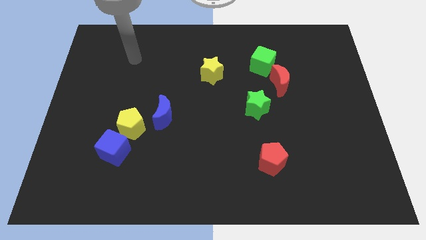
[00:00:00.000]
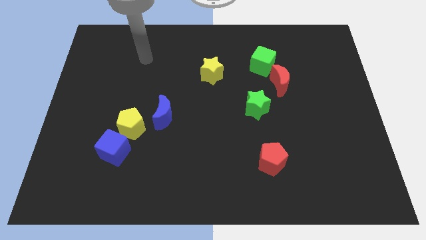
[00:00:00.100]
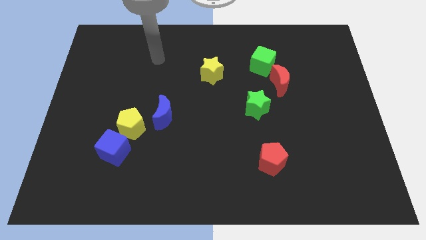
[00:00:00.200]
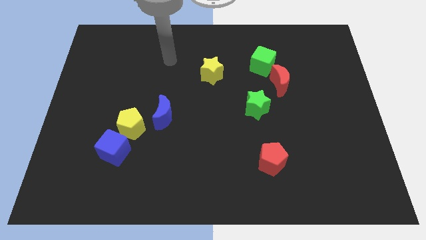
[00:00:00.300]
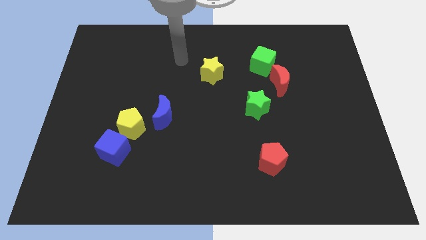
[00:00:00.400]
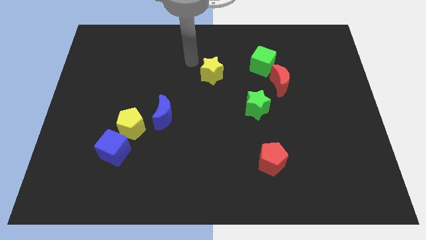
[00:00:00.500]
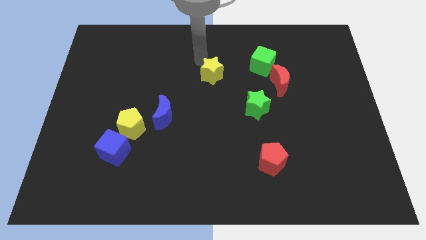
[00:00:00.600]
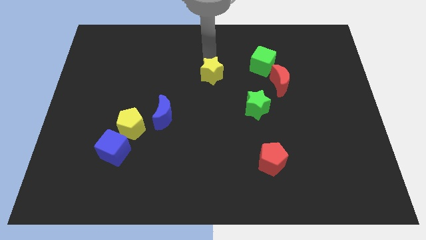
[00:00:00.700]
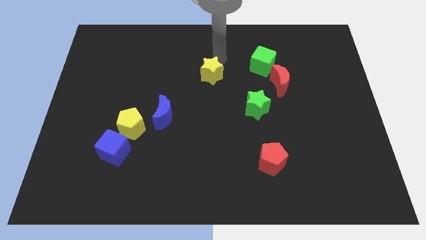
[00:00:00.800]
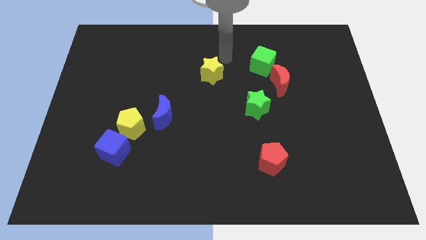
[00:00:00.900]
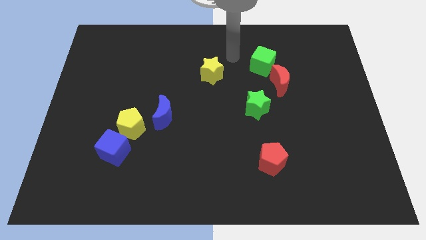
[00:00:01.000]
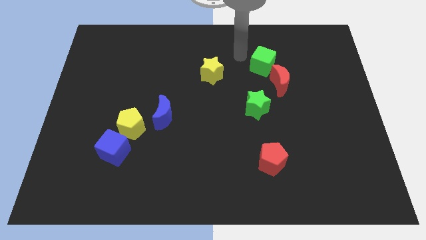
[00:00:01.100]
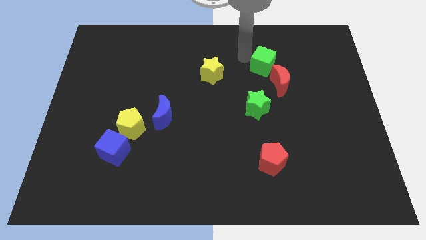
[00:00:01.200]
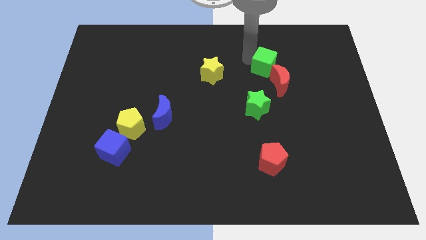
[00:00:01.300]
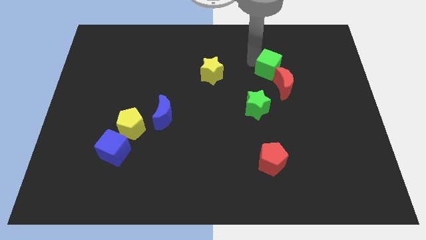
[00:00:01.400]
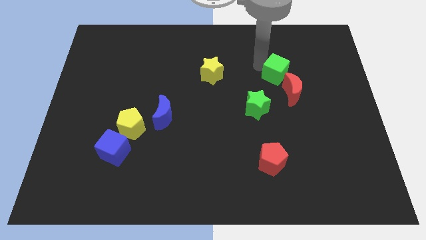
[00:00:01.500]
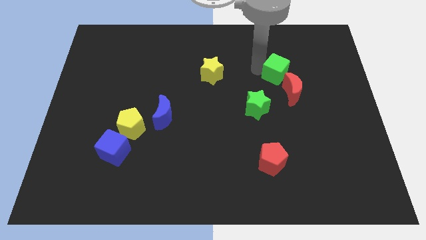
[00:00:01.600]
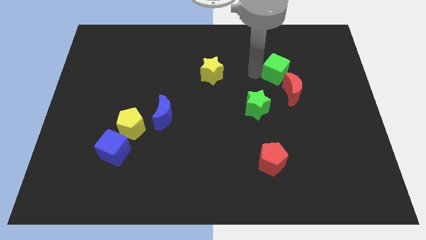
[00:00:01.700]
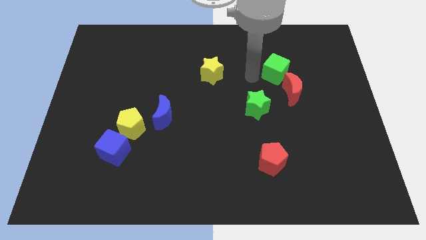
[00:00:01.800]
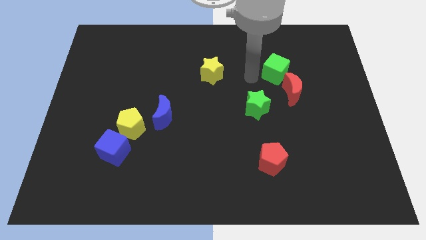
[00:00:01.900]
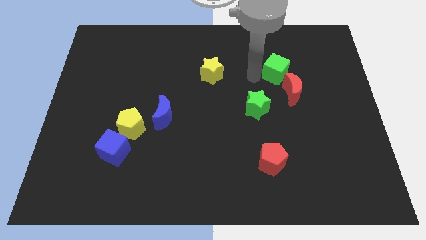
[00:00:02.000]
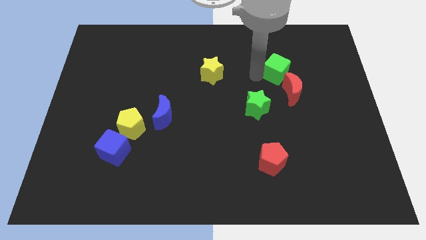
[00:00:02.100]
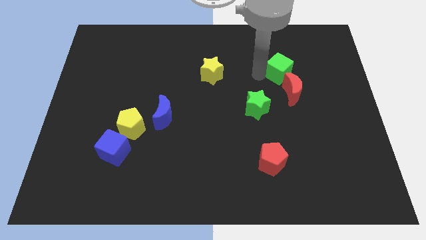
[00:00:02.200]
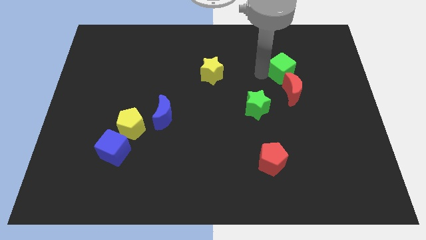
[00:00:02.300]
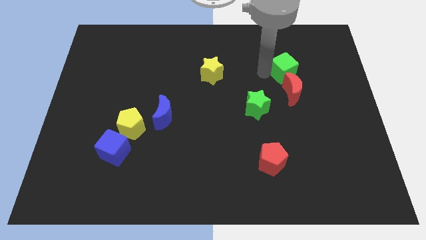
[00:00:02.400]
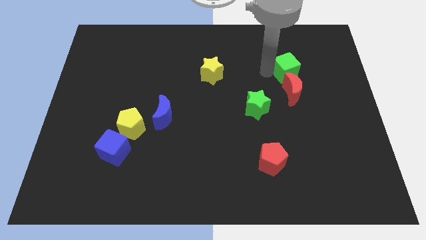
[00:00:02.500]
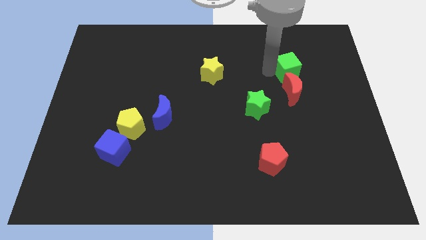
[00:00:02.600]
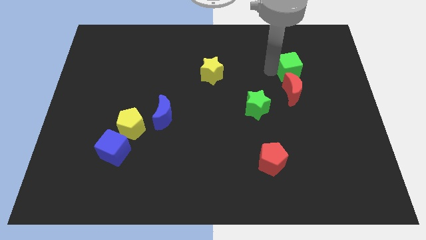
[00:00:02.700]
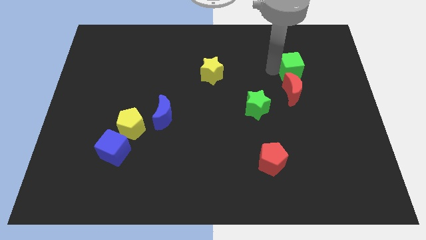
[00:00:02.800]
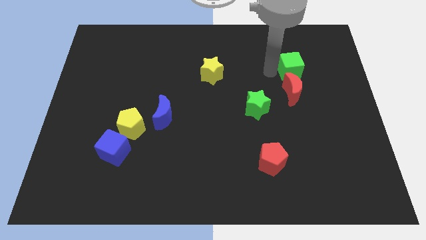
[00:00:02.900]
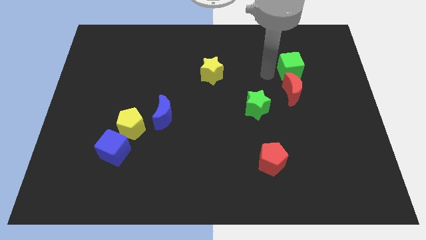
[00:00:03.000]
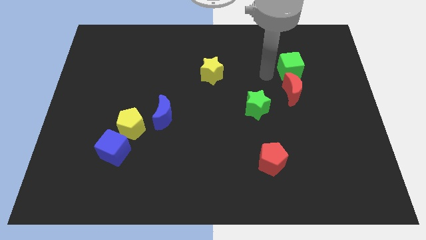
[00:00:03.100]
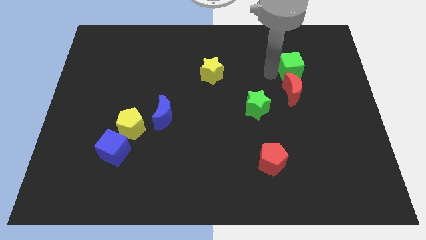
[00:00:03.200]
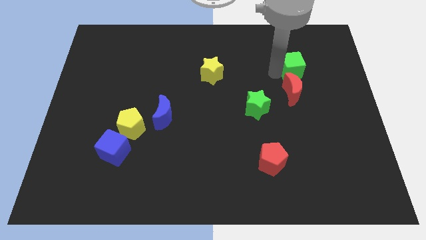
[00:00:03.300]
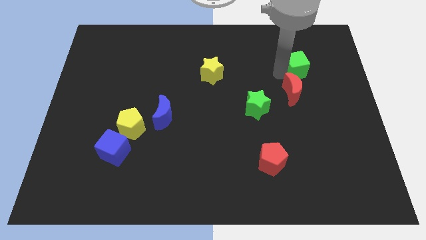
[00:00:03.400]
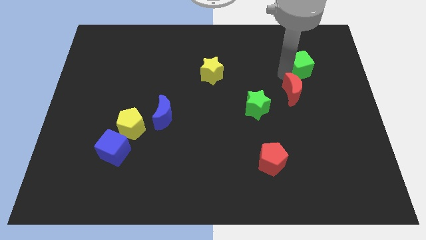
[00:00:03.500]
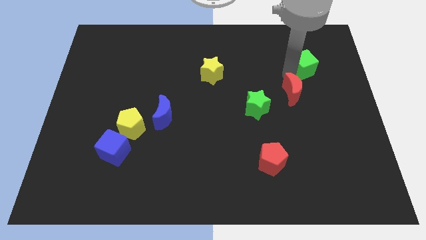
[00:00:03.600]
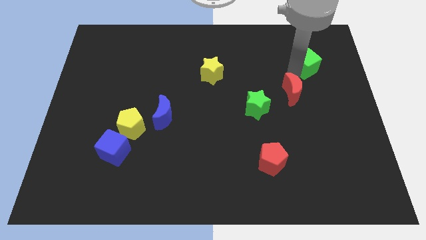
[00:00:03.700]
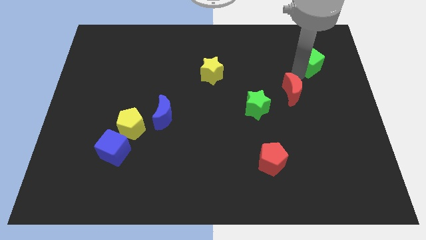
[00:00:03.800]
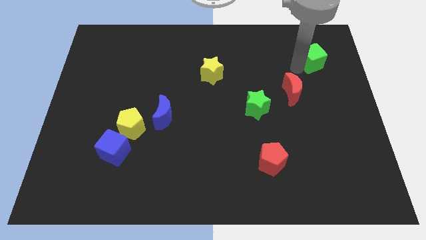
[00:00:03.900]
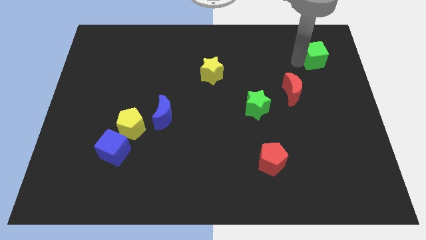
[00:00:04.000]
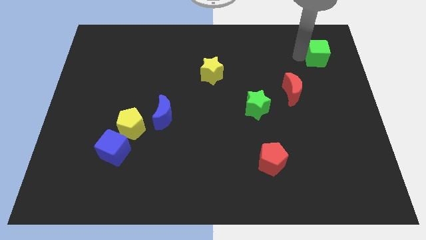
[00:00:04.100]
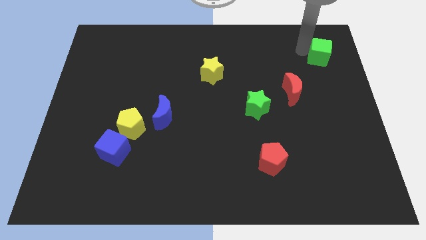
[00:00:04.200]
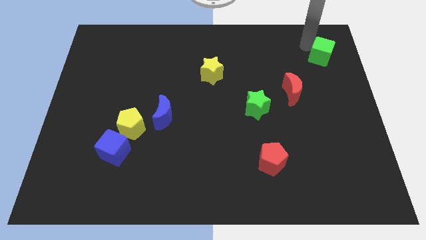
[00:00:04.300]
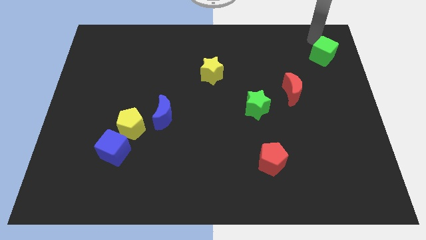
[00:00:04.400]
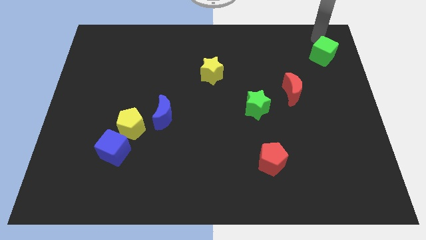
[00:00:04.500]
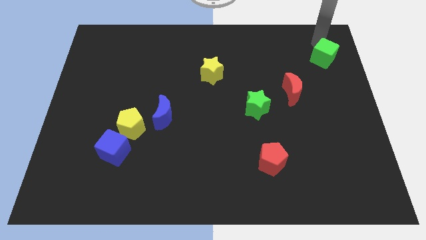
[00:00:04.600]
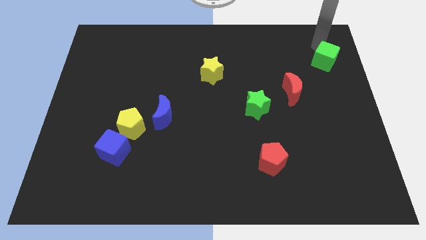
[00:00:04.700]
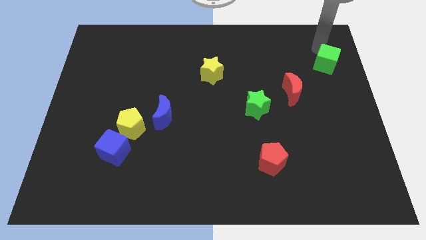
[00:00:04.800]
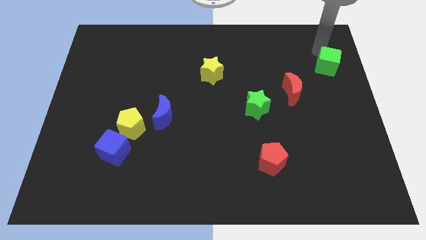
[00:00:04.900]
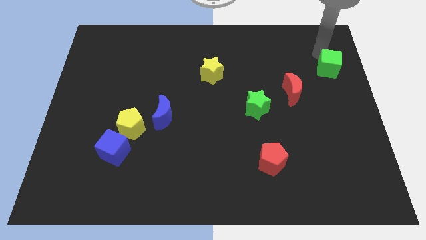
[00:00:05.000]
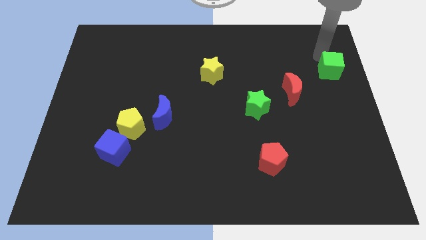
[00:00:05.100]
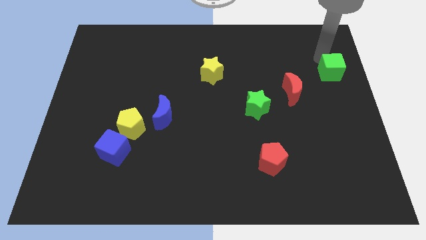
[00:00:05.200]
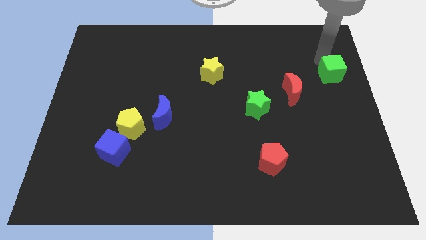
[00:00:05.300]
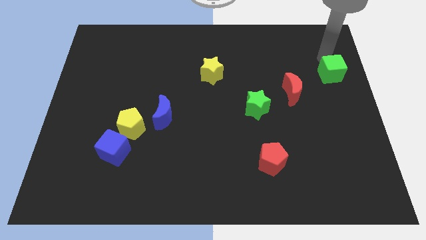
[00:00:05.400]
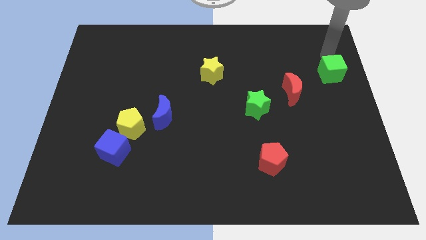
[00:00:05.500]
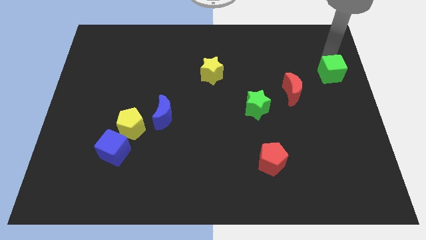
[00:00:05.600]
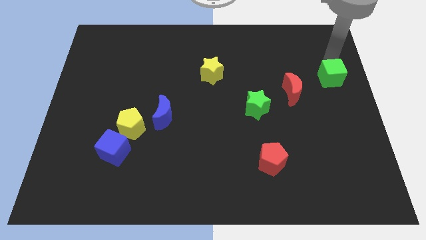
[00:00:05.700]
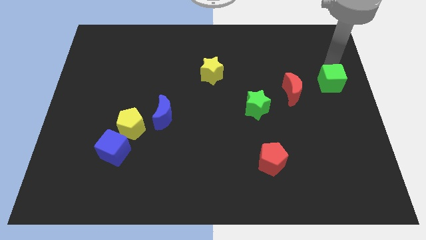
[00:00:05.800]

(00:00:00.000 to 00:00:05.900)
put the green cube just right of the red moon

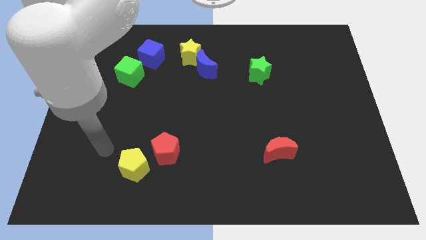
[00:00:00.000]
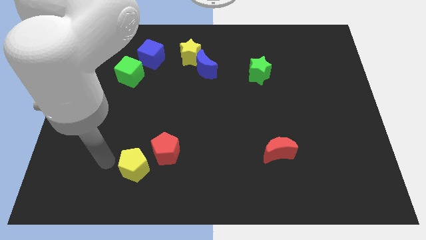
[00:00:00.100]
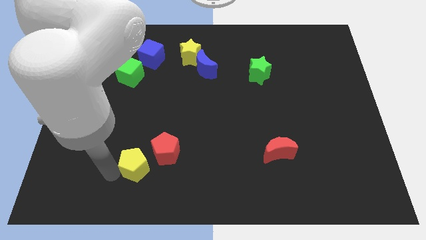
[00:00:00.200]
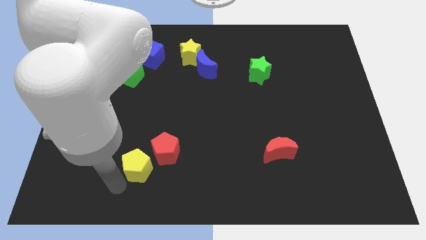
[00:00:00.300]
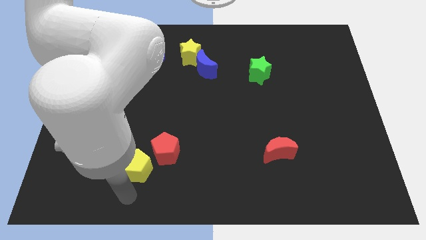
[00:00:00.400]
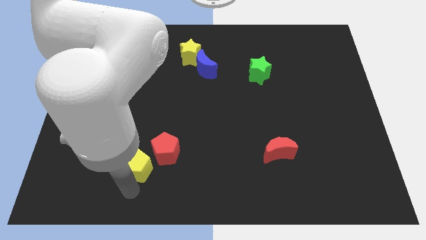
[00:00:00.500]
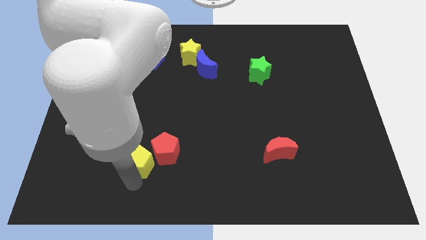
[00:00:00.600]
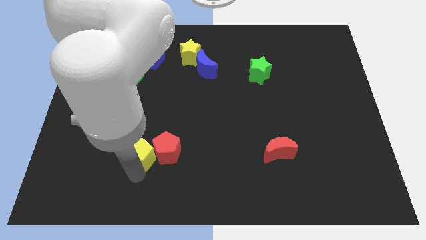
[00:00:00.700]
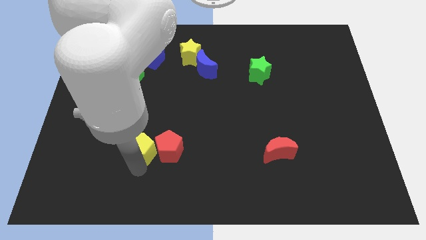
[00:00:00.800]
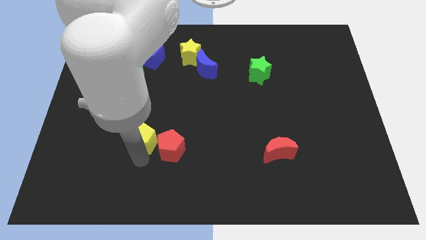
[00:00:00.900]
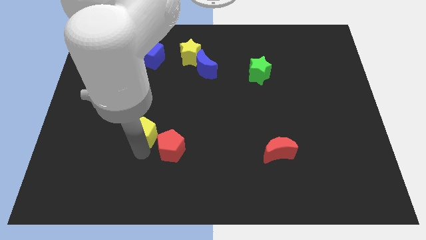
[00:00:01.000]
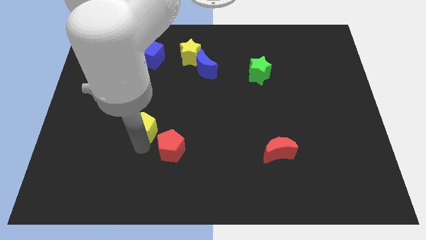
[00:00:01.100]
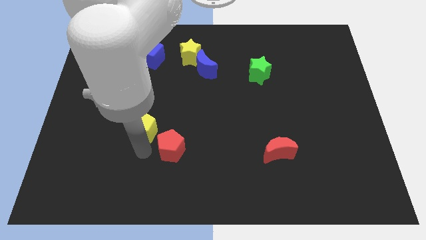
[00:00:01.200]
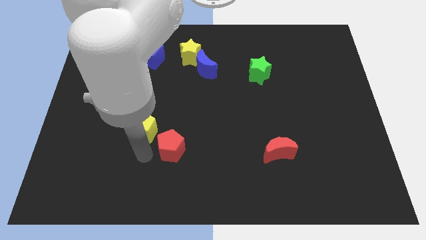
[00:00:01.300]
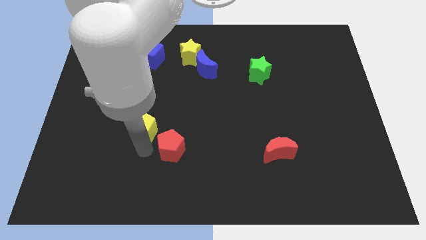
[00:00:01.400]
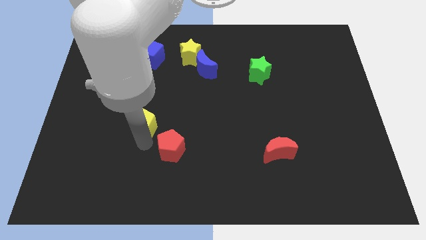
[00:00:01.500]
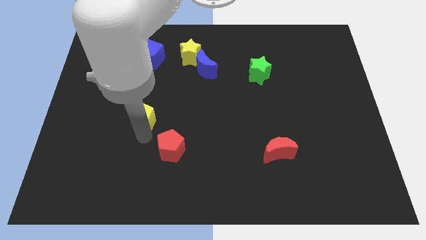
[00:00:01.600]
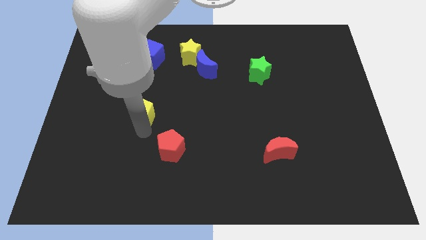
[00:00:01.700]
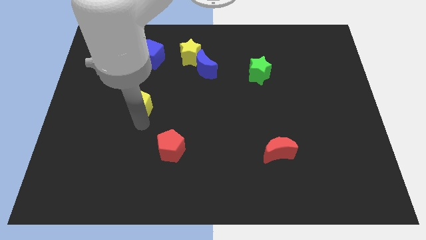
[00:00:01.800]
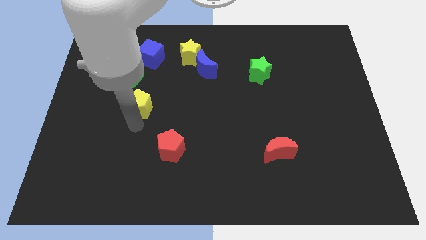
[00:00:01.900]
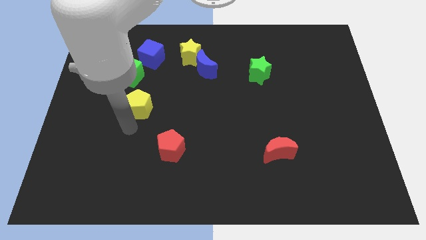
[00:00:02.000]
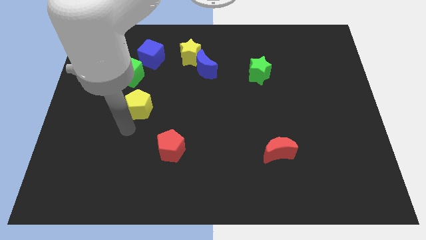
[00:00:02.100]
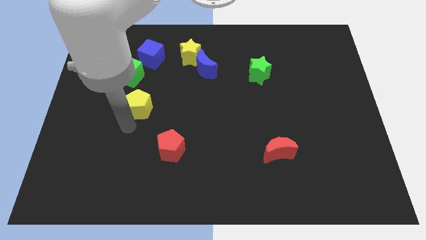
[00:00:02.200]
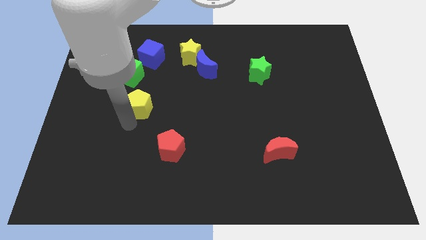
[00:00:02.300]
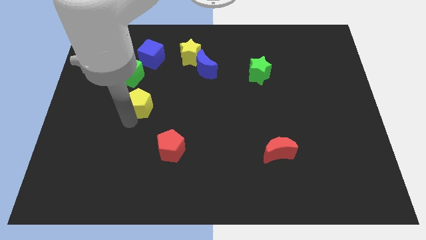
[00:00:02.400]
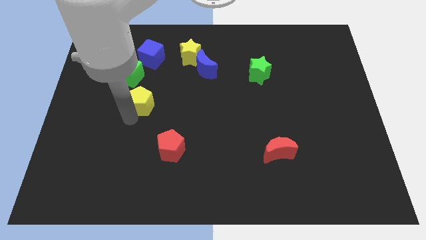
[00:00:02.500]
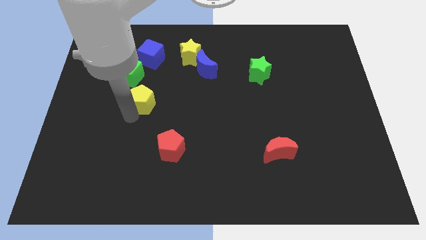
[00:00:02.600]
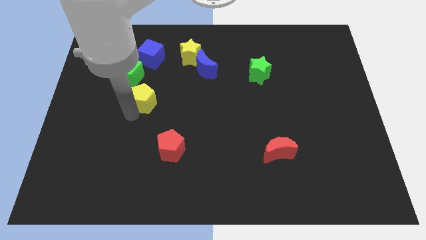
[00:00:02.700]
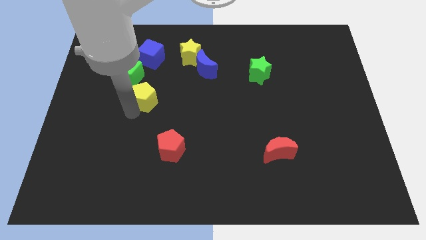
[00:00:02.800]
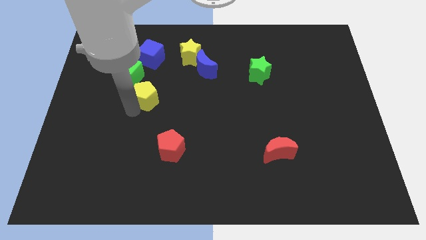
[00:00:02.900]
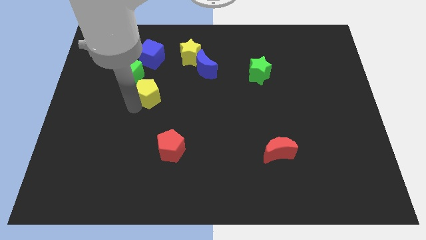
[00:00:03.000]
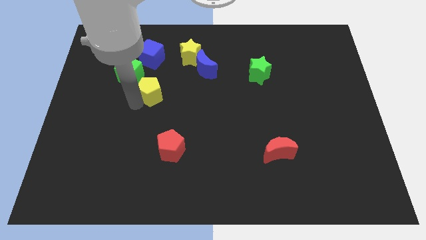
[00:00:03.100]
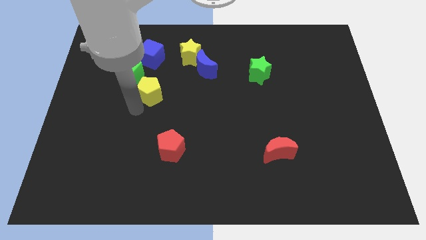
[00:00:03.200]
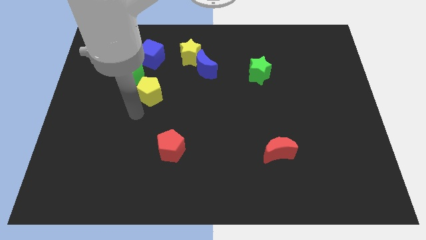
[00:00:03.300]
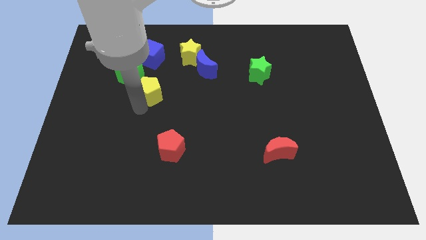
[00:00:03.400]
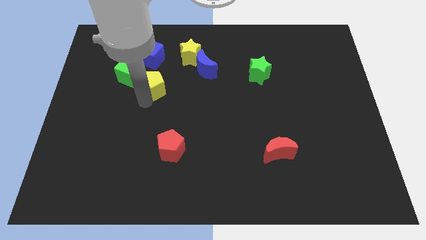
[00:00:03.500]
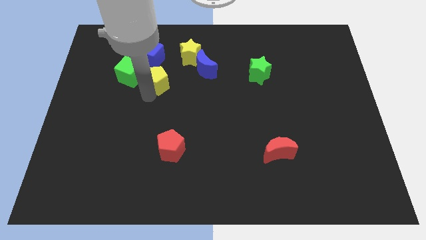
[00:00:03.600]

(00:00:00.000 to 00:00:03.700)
put the yellow pentagon diagonally down and to the left of the yellow star
